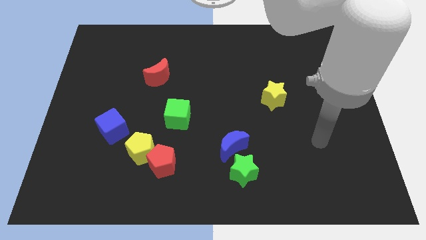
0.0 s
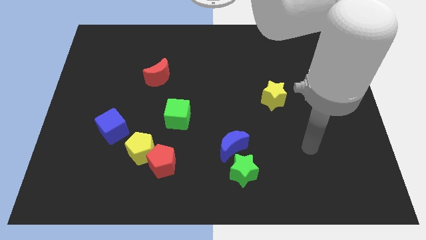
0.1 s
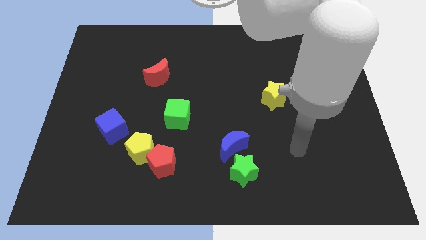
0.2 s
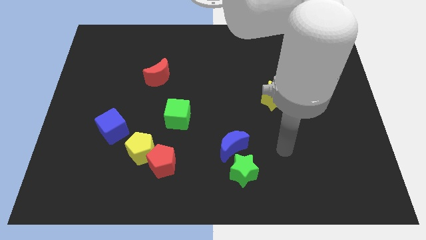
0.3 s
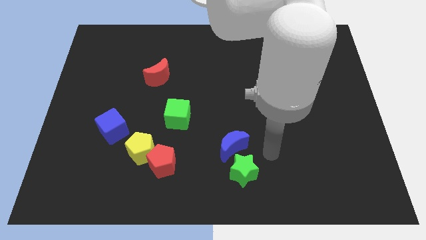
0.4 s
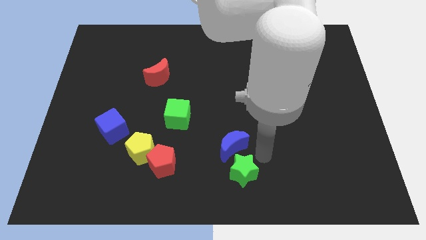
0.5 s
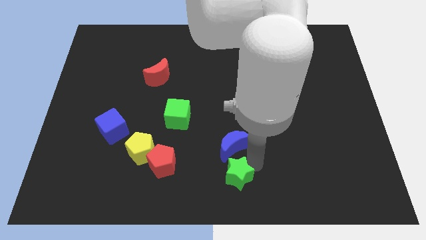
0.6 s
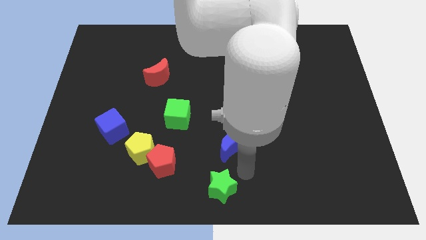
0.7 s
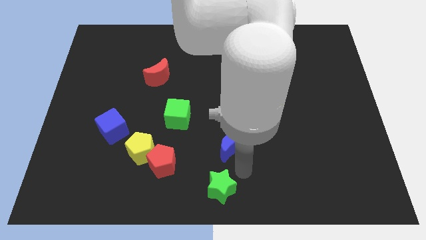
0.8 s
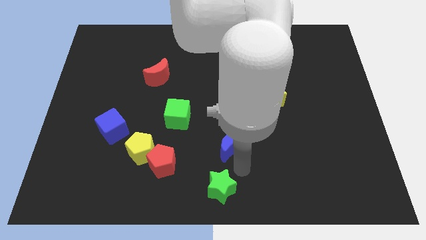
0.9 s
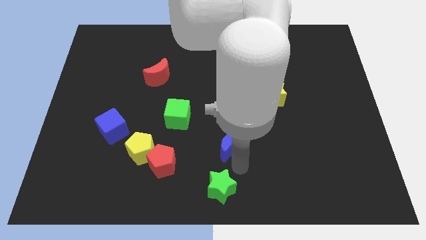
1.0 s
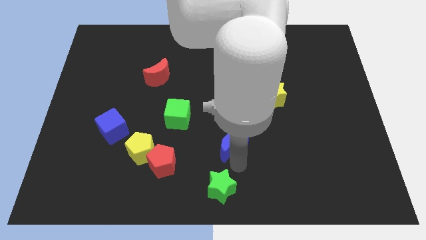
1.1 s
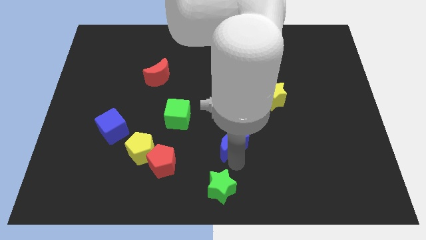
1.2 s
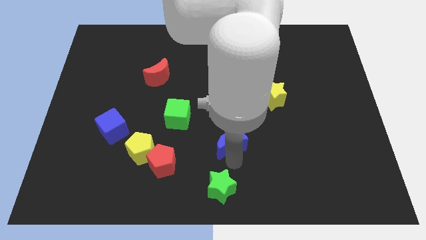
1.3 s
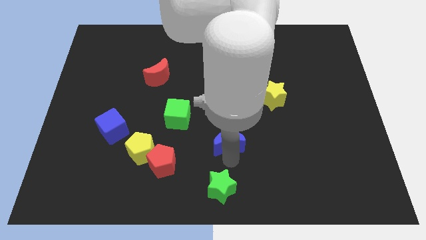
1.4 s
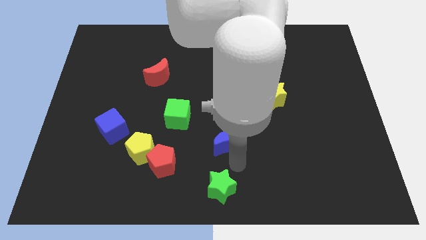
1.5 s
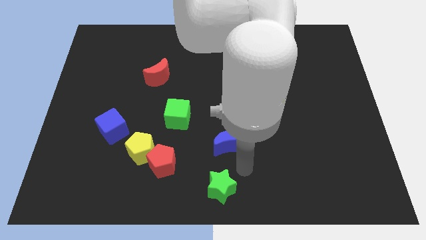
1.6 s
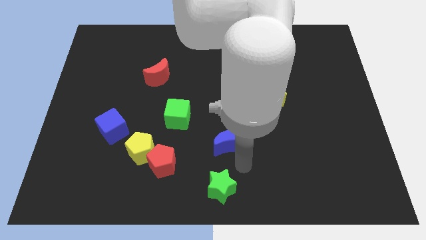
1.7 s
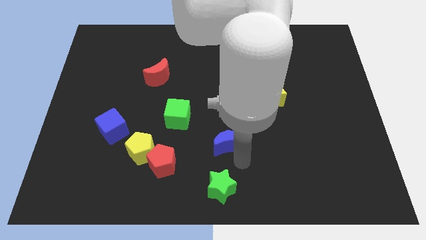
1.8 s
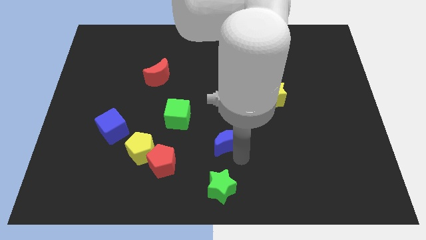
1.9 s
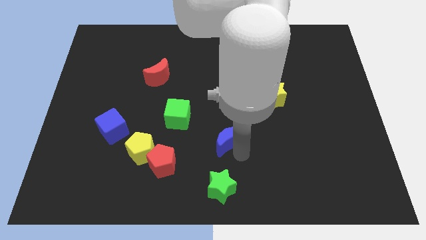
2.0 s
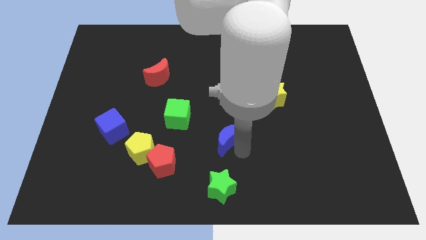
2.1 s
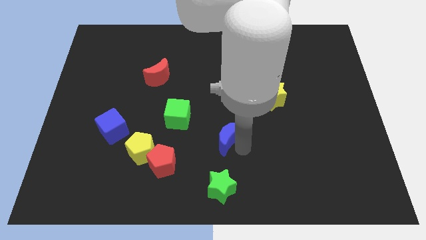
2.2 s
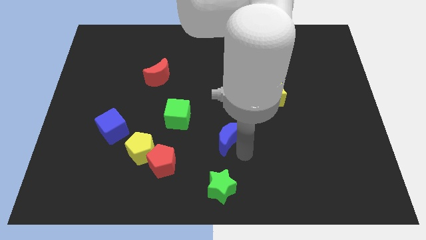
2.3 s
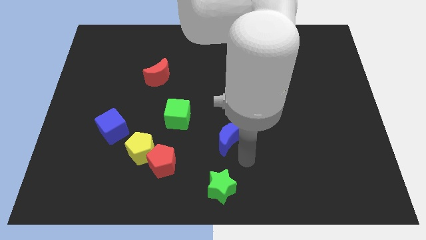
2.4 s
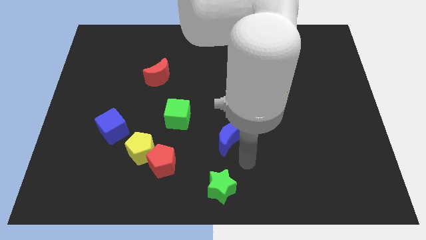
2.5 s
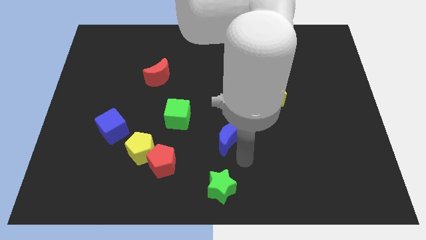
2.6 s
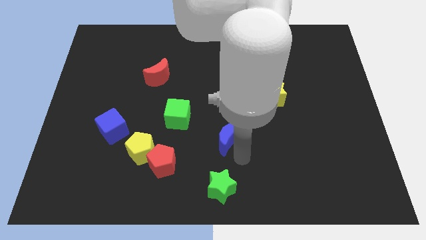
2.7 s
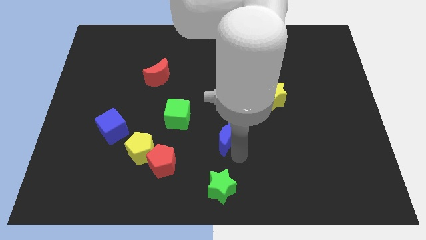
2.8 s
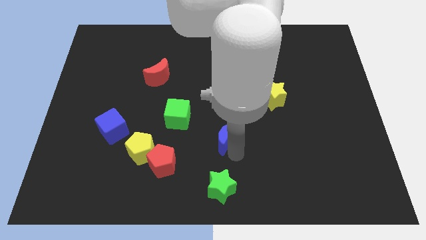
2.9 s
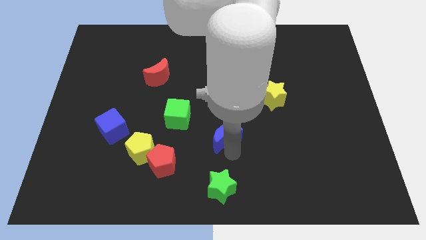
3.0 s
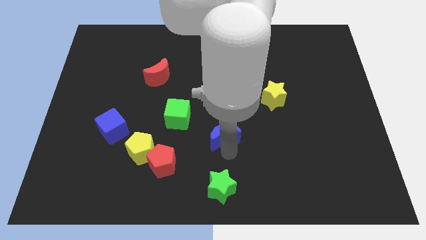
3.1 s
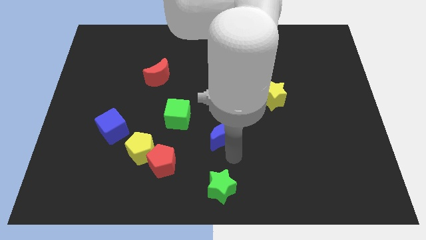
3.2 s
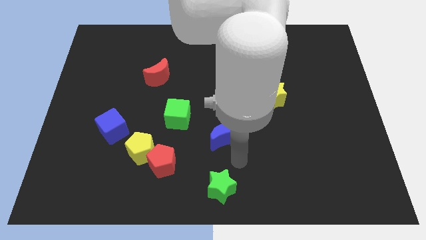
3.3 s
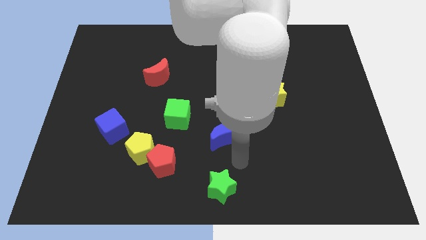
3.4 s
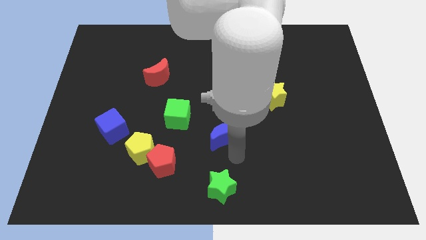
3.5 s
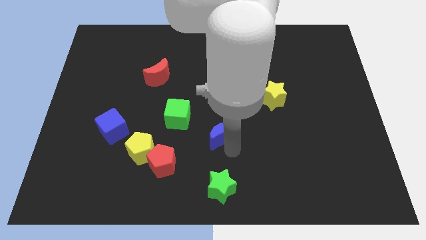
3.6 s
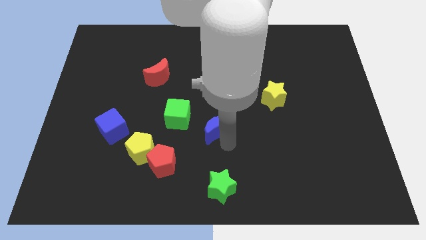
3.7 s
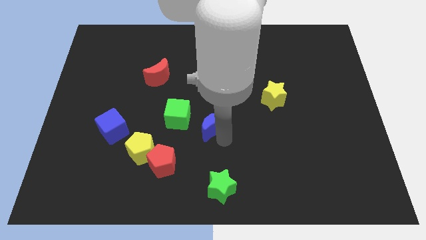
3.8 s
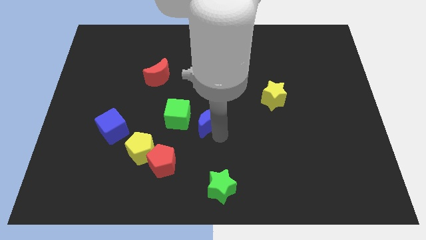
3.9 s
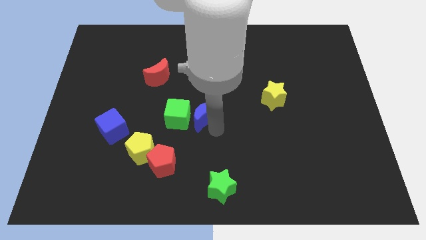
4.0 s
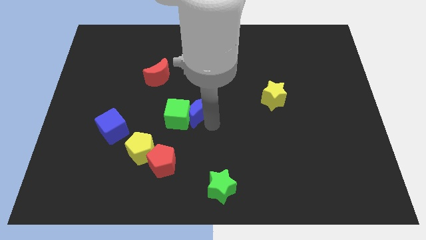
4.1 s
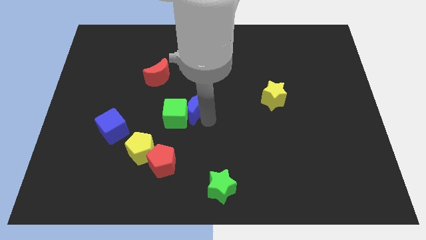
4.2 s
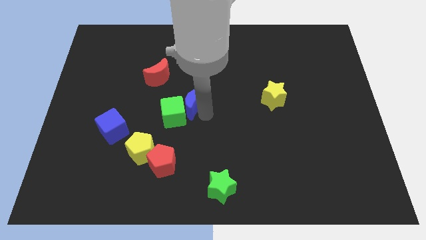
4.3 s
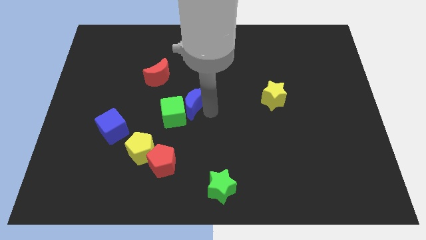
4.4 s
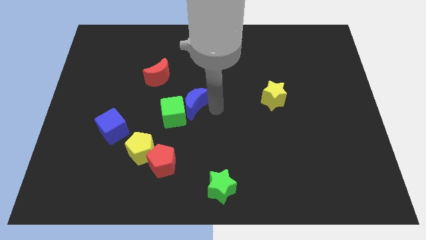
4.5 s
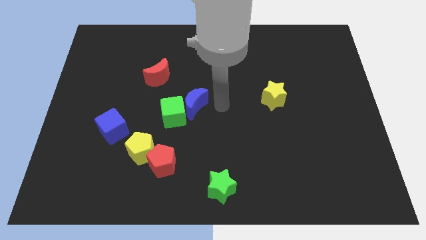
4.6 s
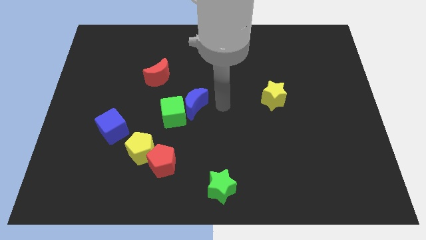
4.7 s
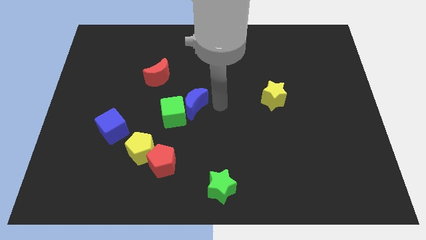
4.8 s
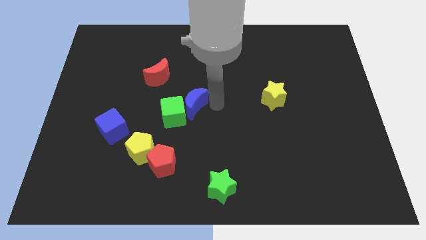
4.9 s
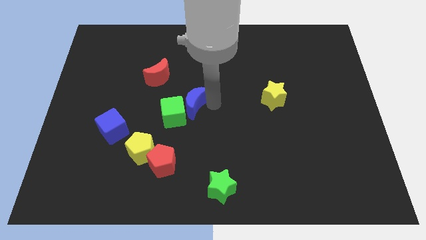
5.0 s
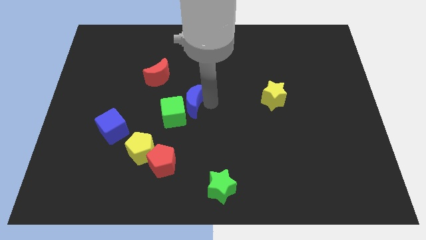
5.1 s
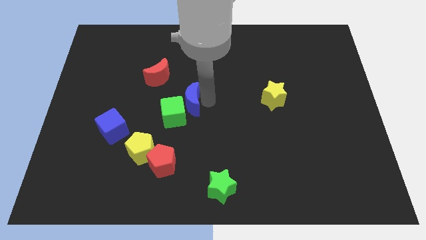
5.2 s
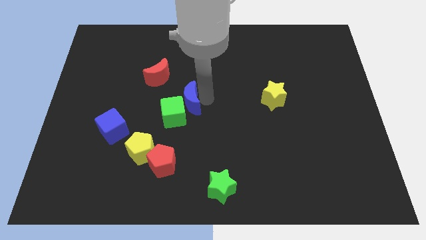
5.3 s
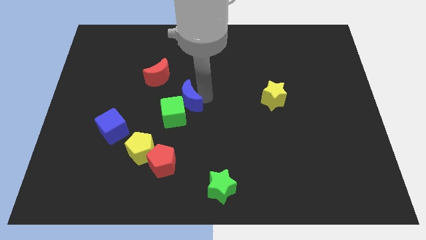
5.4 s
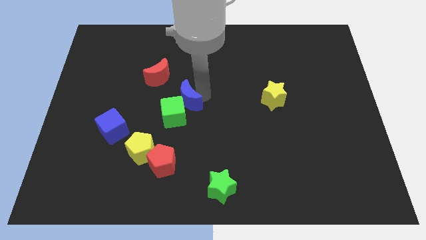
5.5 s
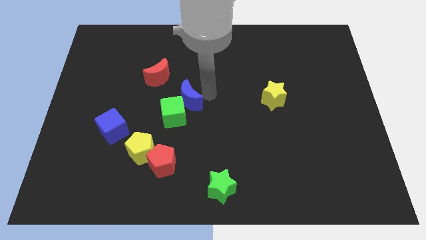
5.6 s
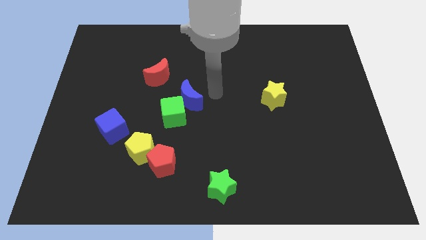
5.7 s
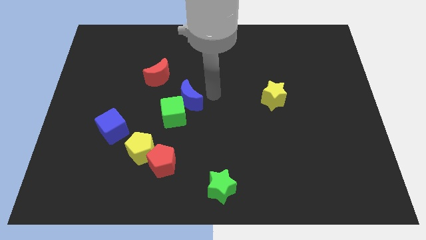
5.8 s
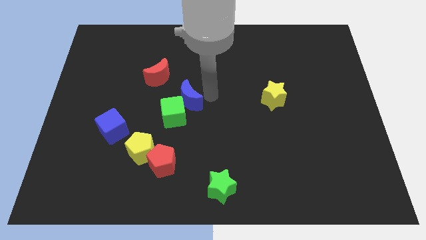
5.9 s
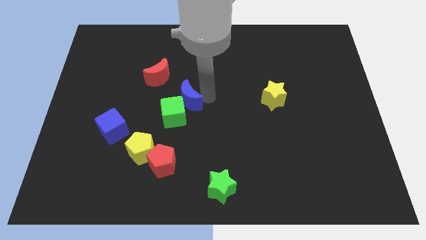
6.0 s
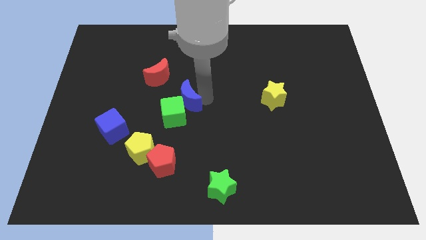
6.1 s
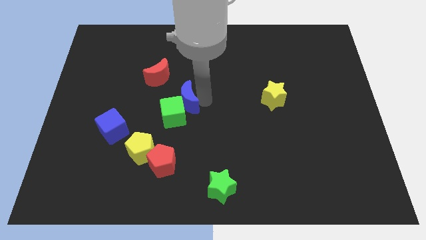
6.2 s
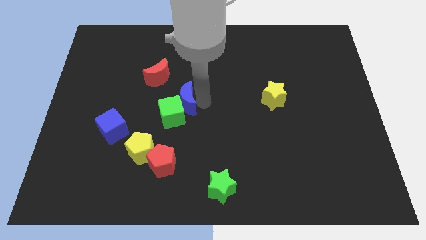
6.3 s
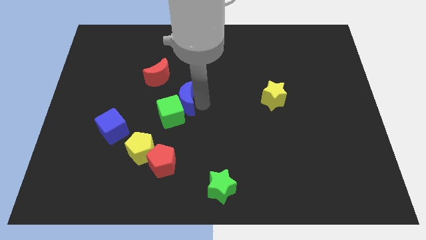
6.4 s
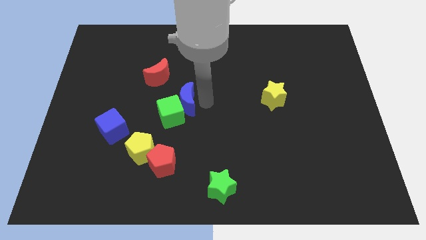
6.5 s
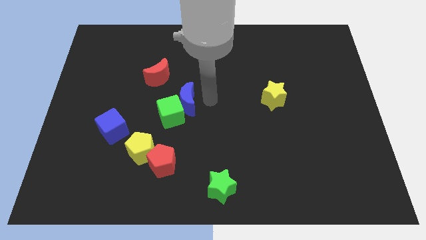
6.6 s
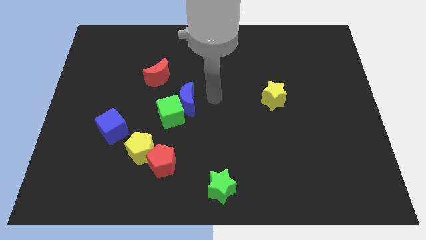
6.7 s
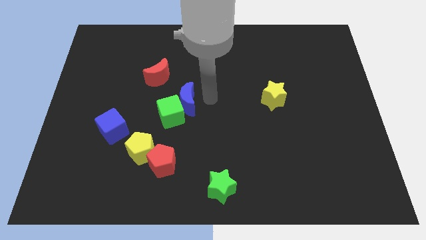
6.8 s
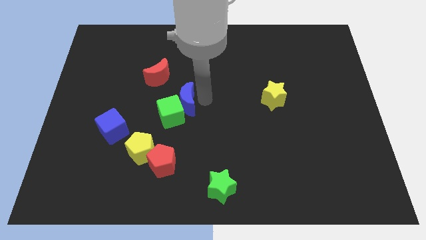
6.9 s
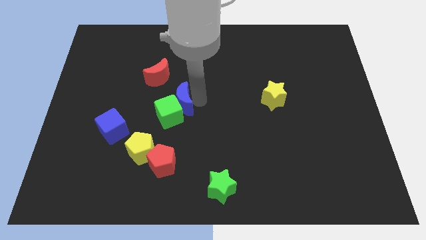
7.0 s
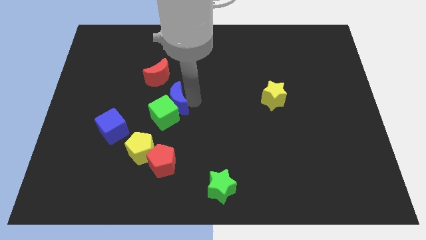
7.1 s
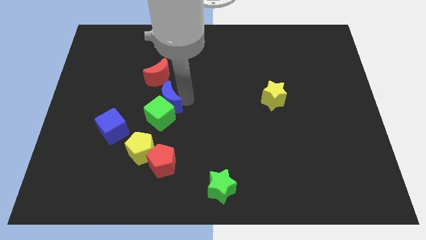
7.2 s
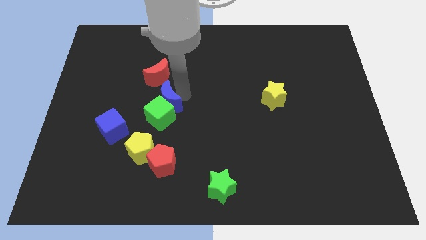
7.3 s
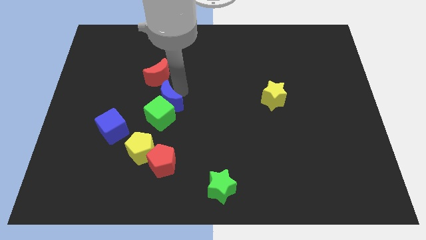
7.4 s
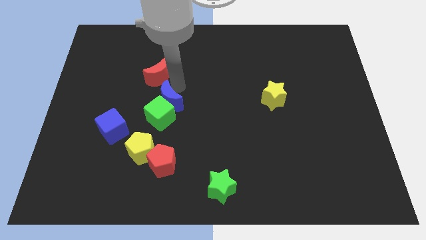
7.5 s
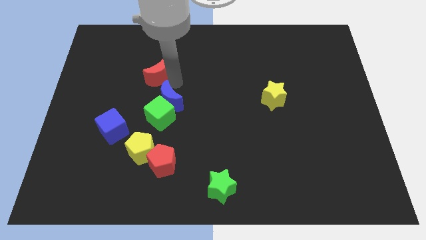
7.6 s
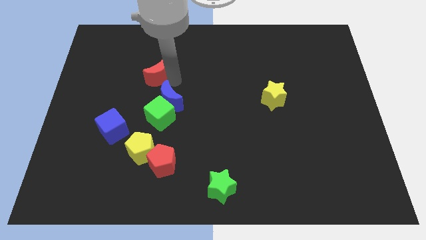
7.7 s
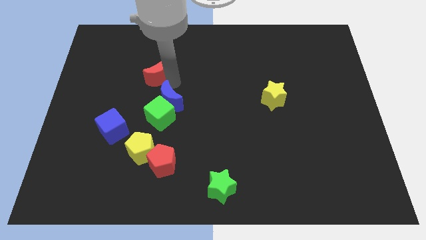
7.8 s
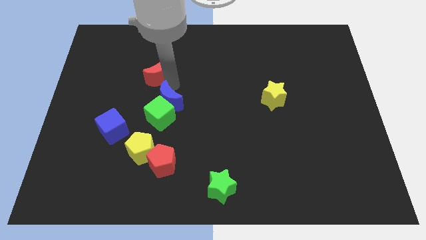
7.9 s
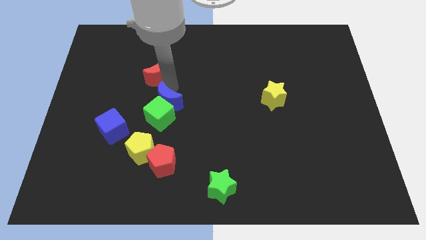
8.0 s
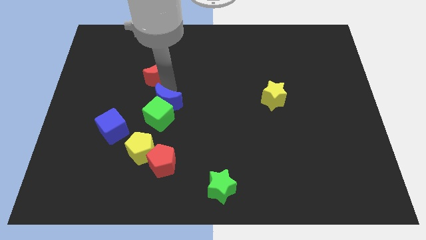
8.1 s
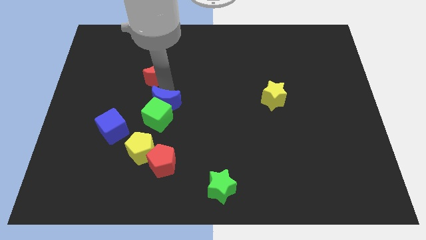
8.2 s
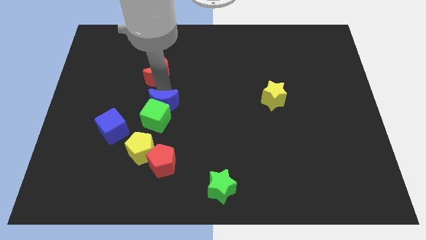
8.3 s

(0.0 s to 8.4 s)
slide the blue moon to the top of the red pentagon
